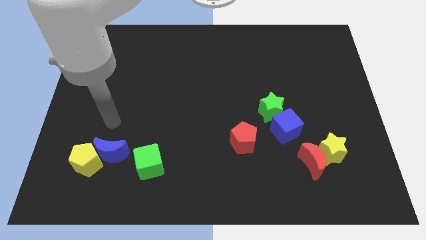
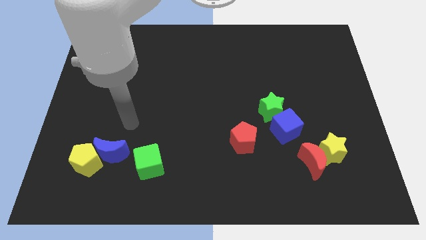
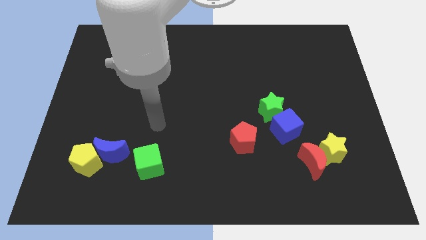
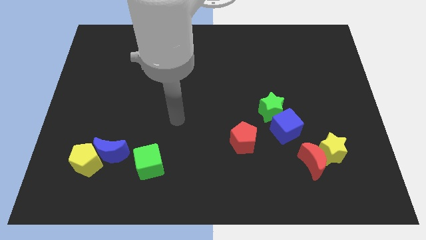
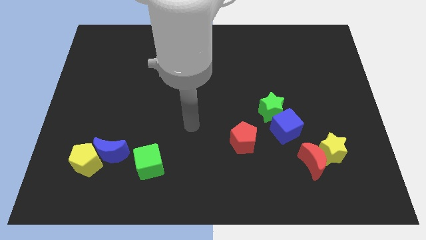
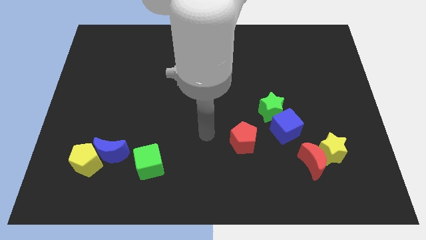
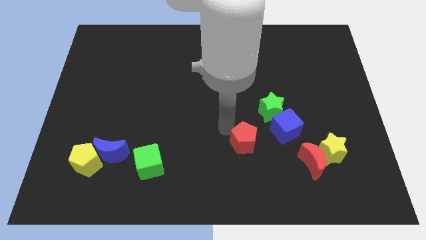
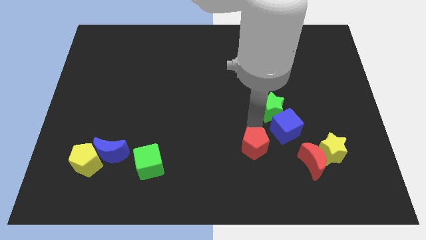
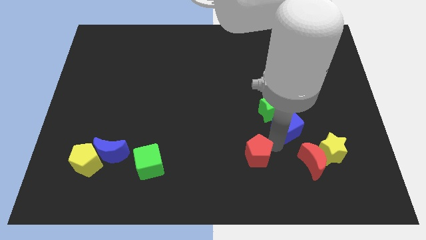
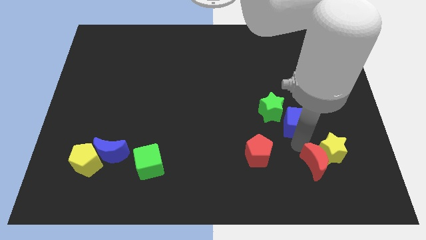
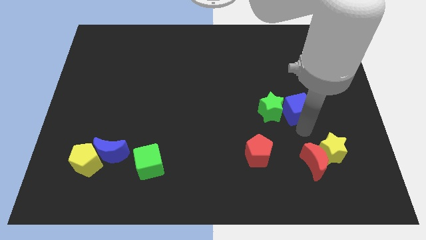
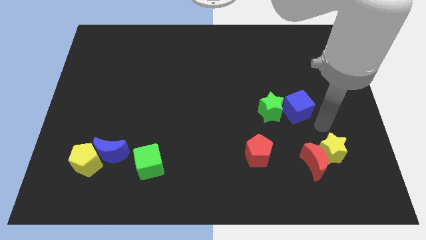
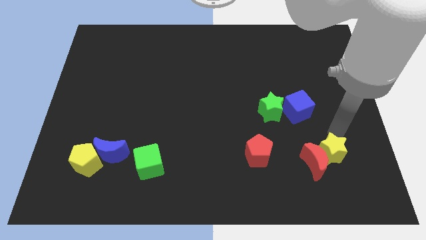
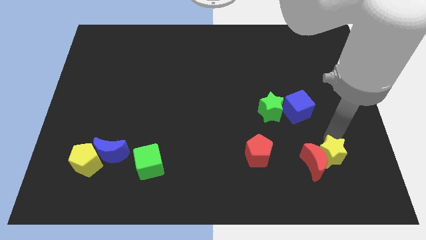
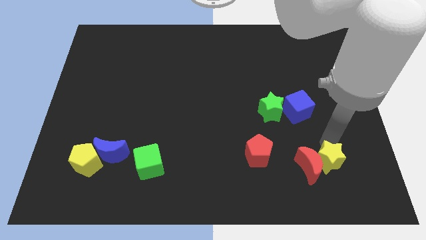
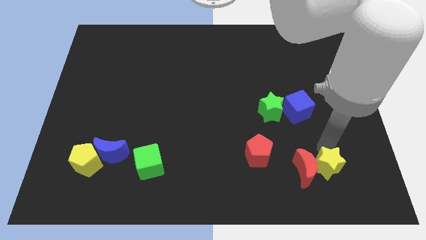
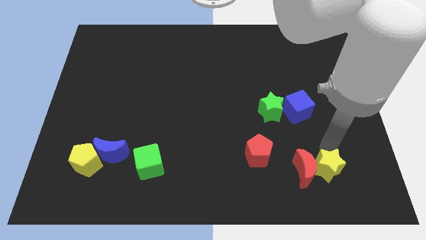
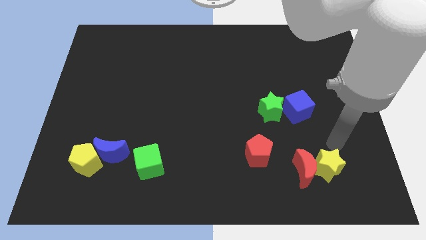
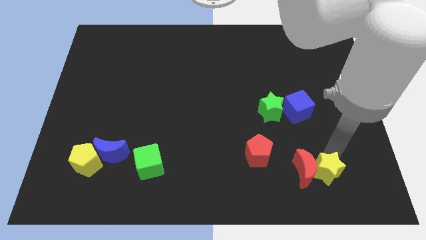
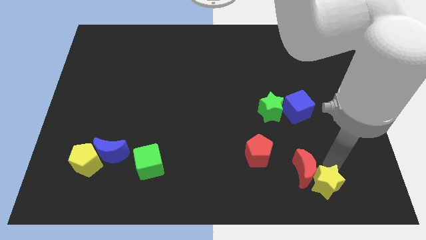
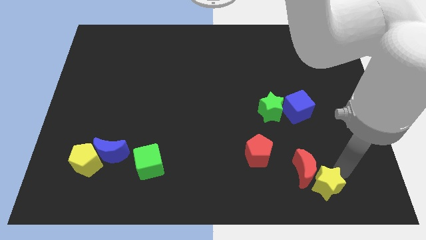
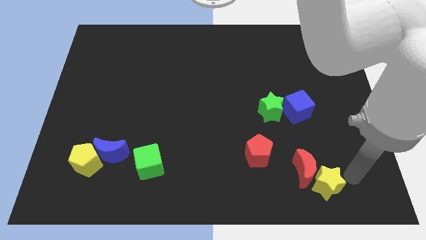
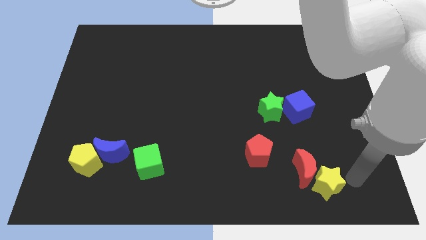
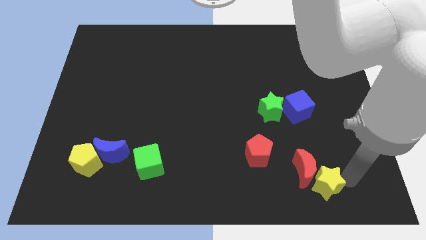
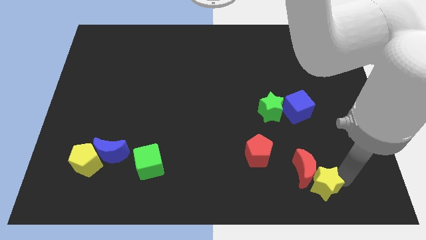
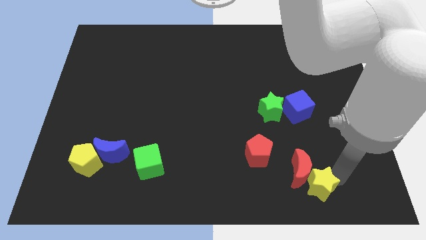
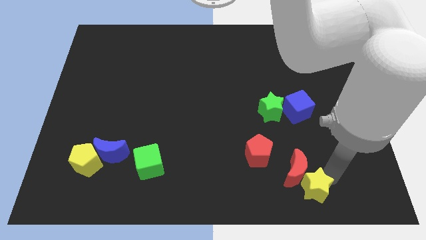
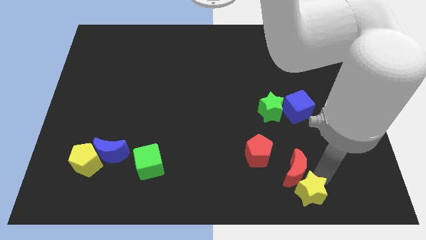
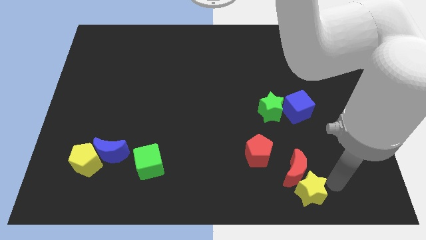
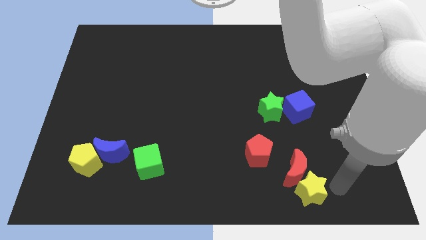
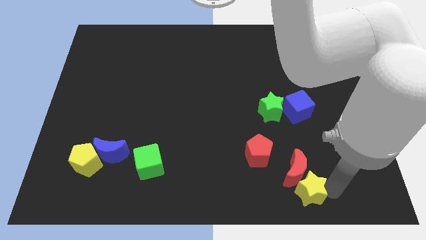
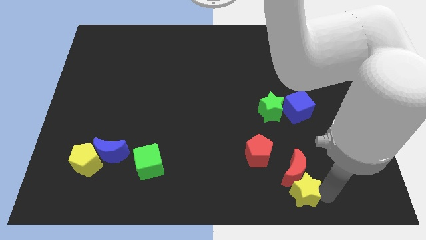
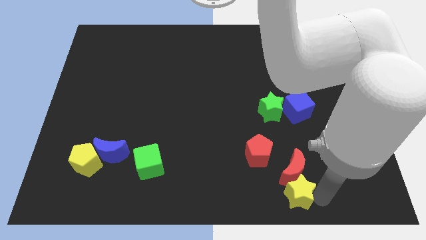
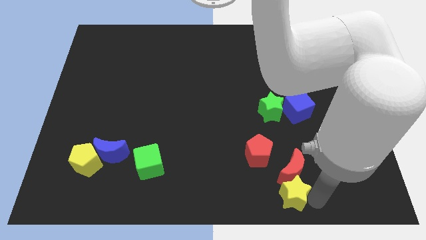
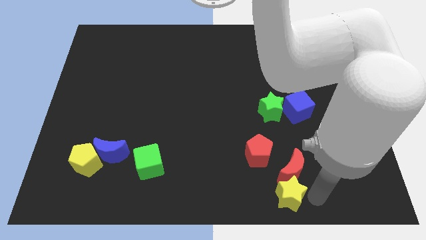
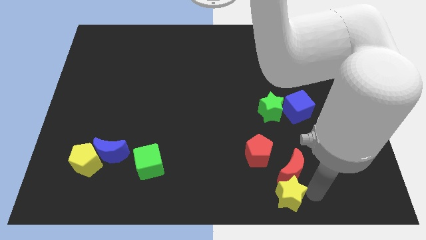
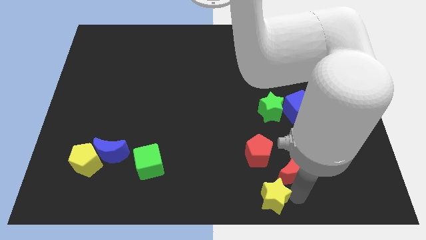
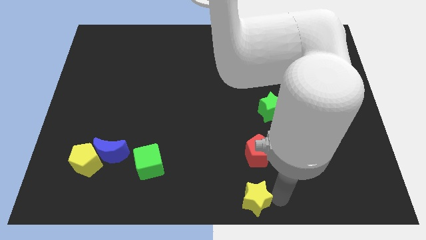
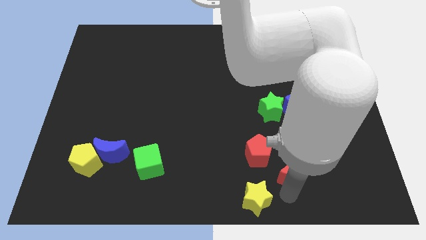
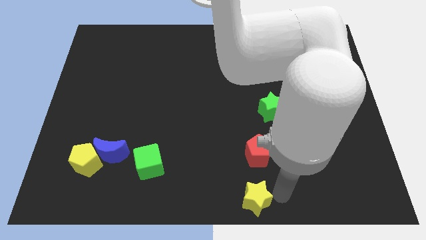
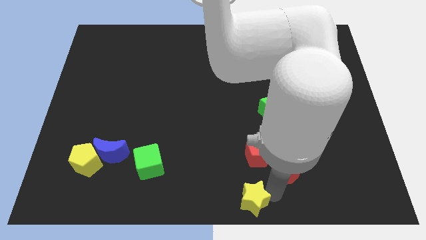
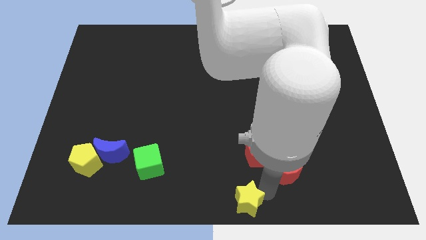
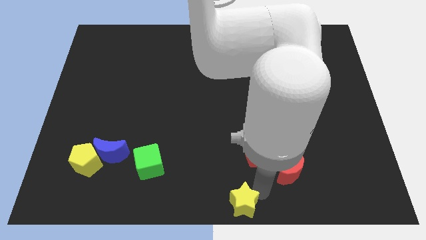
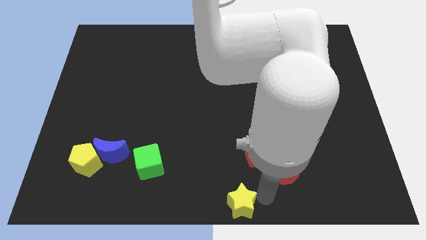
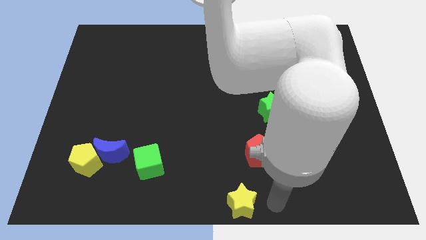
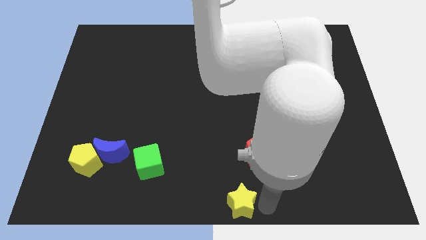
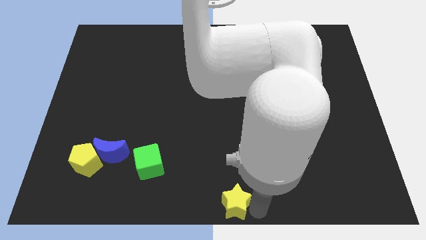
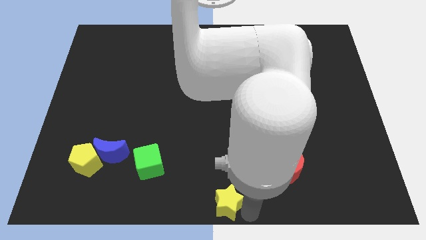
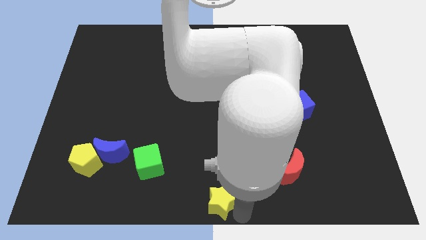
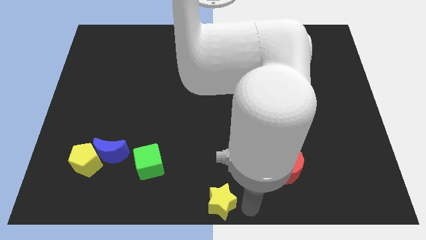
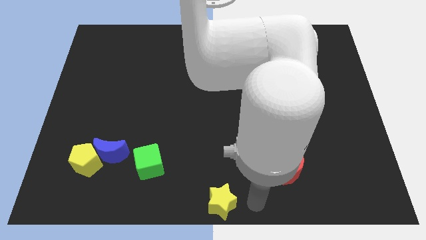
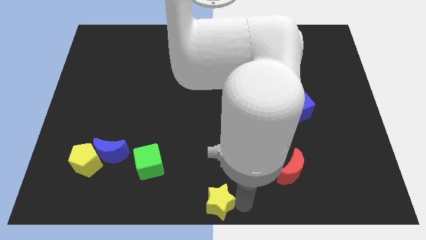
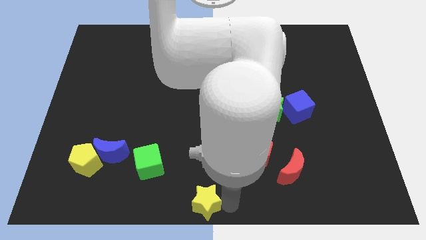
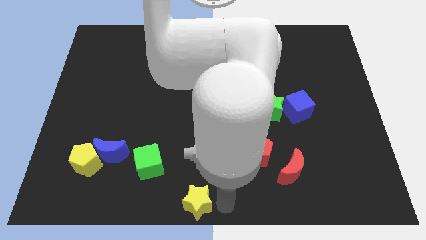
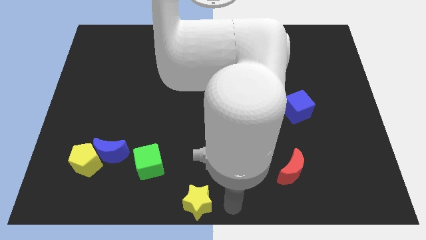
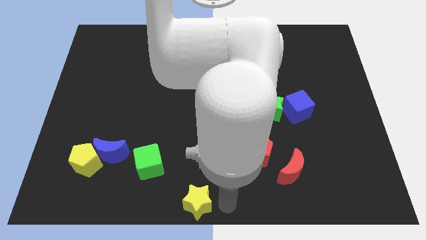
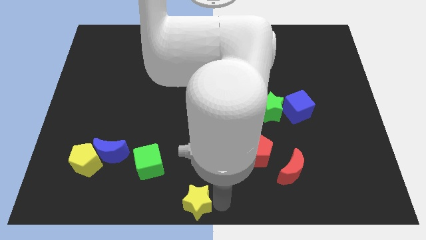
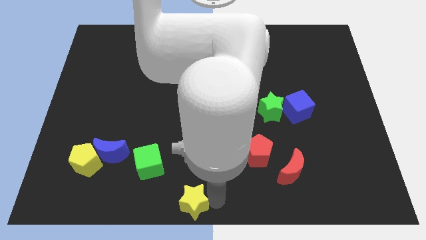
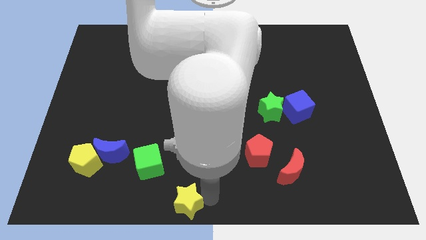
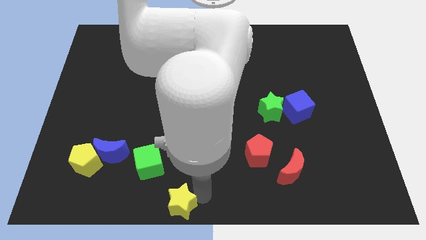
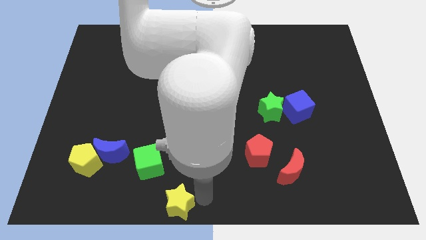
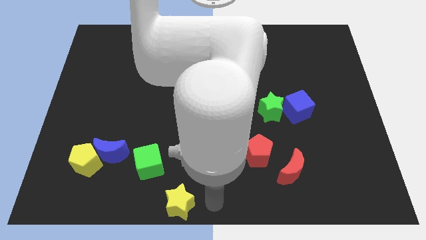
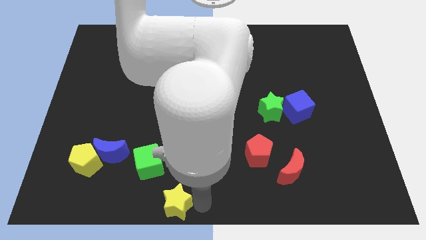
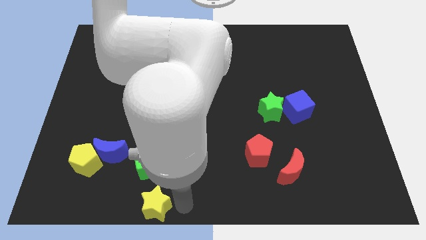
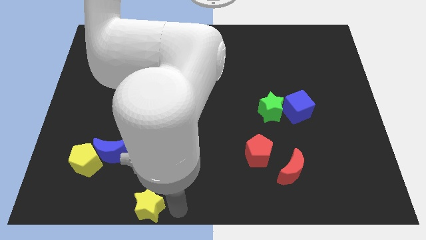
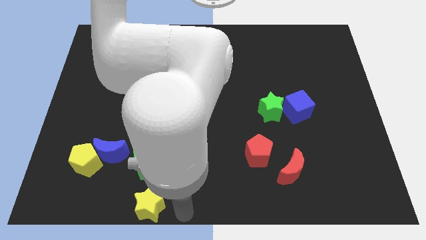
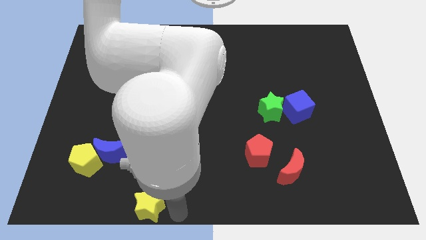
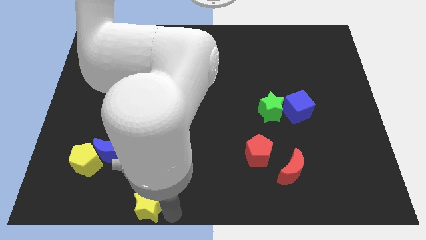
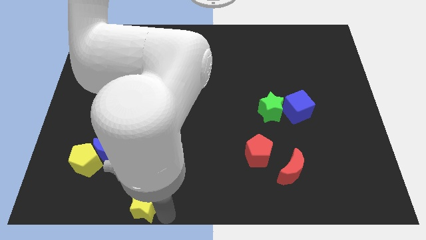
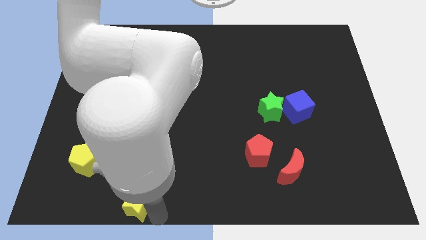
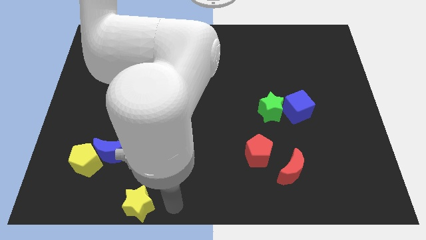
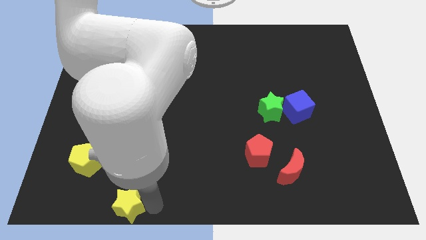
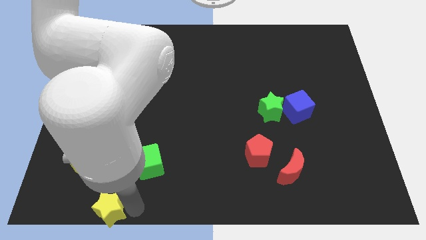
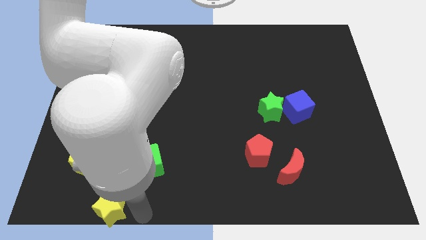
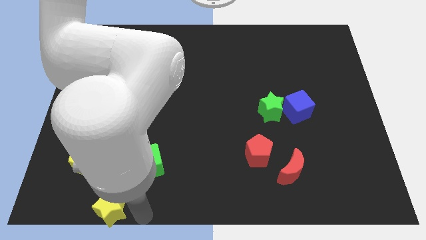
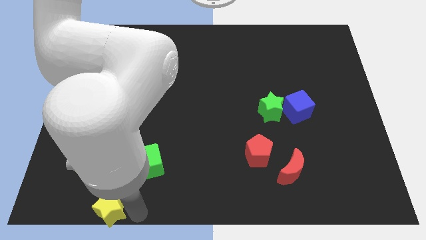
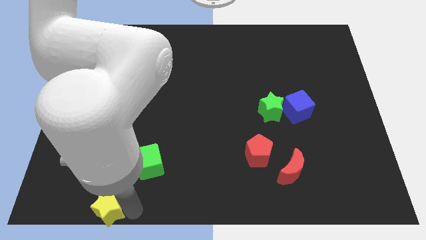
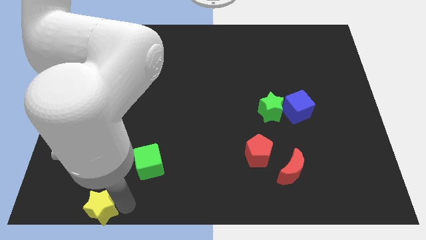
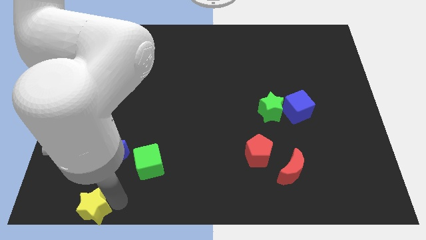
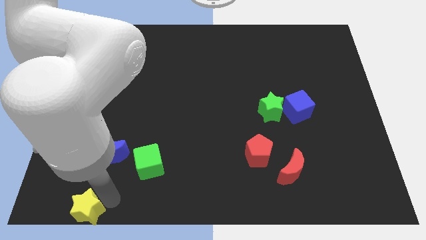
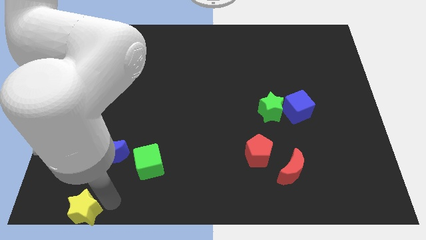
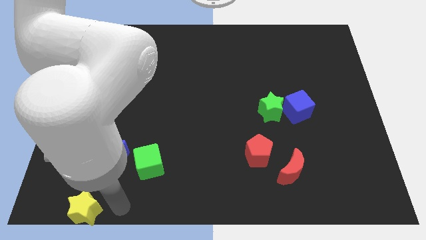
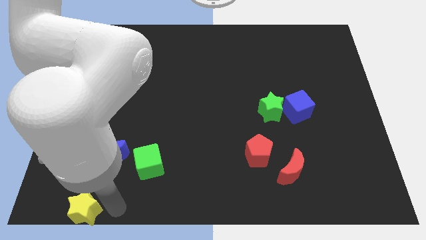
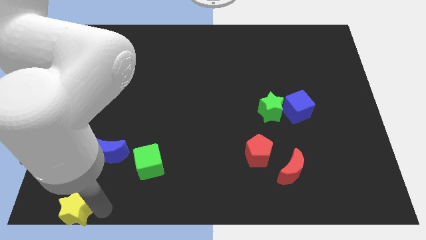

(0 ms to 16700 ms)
slide the yellow star to the lower left corner
